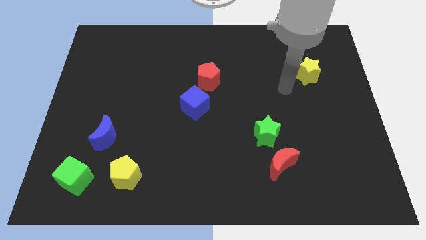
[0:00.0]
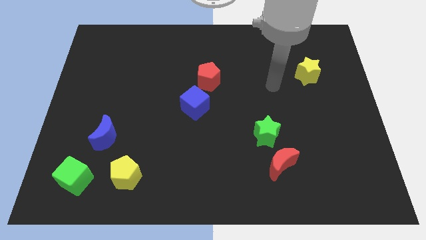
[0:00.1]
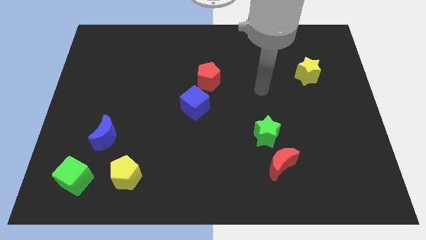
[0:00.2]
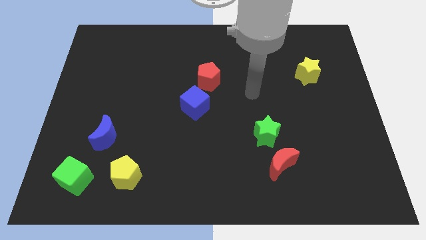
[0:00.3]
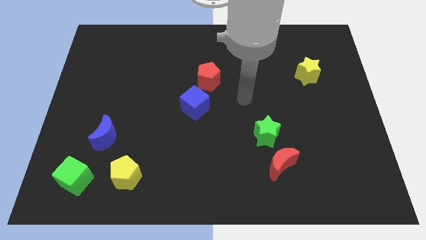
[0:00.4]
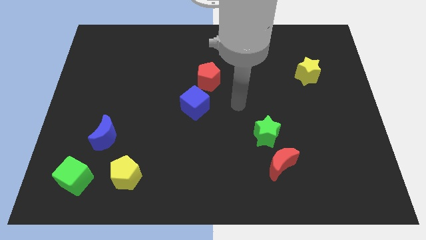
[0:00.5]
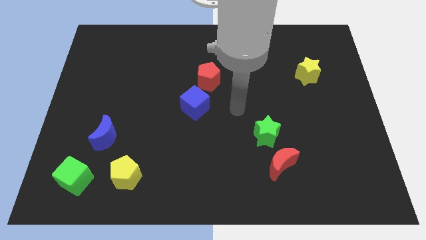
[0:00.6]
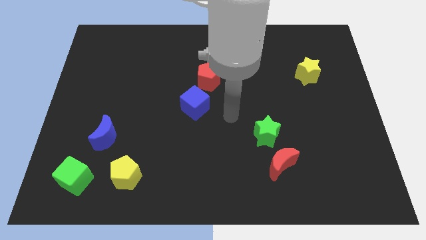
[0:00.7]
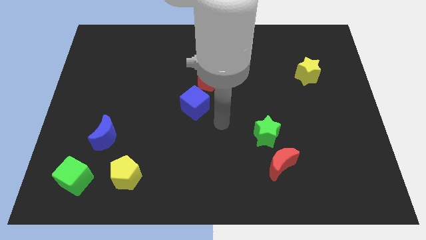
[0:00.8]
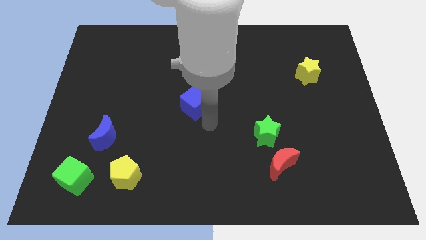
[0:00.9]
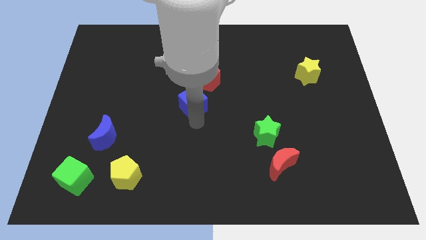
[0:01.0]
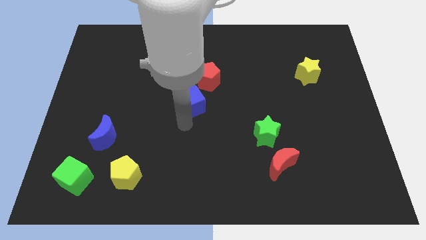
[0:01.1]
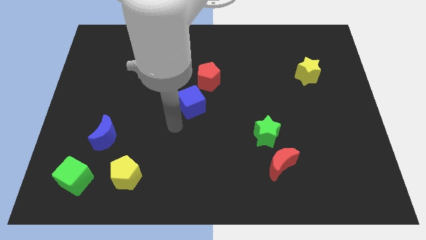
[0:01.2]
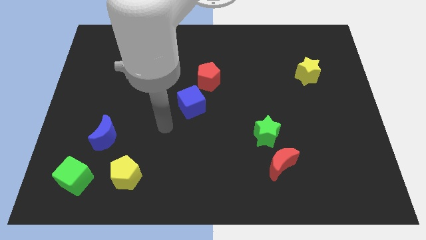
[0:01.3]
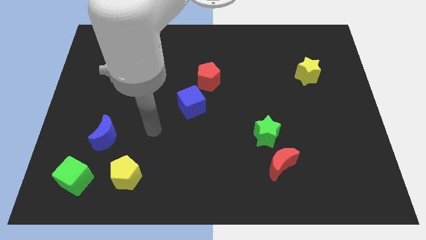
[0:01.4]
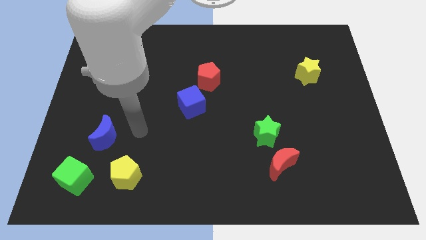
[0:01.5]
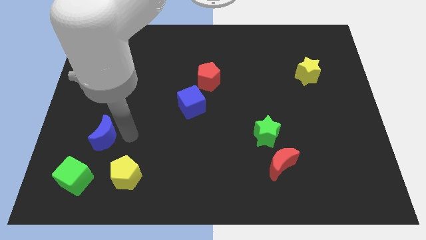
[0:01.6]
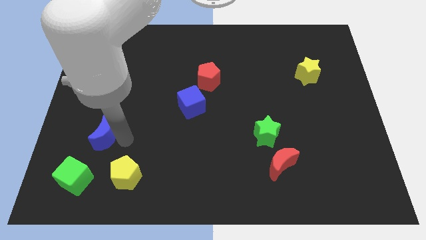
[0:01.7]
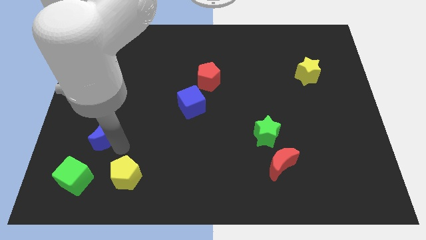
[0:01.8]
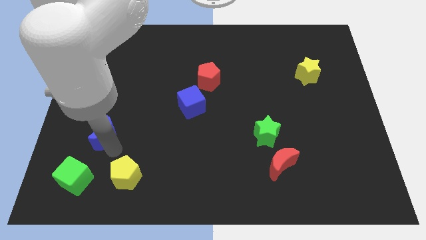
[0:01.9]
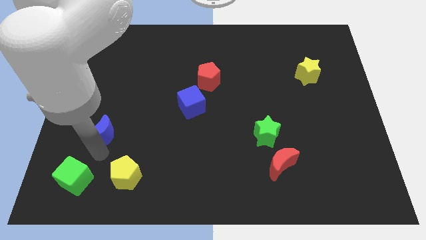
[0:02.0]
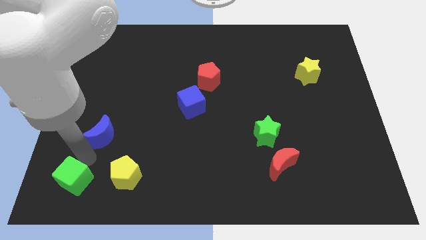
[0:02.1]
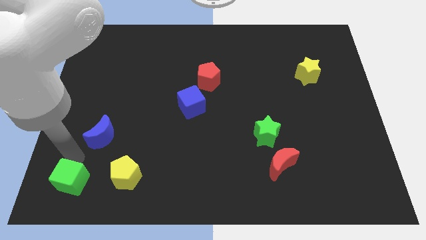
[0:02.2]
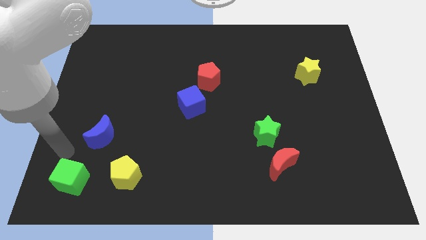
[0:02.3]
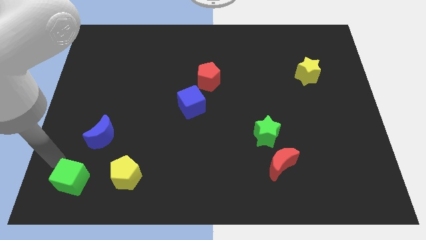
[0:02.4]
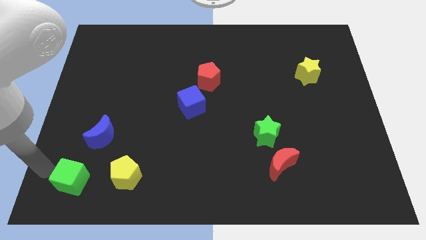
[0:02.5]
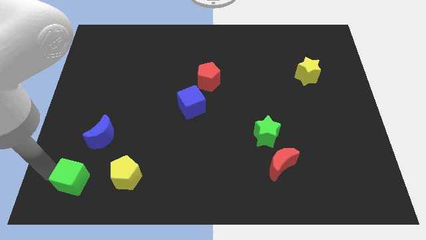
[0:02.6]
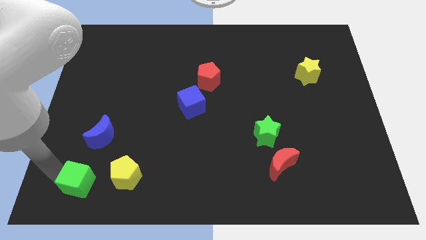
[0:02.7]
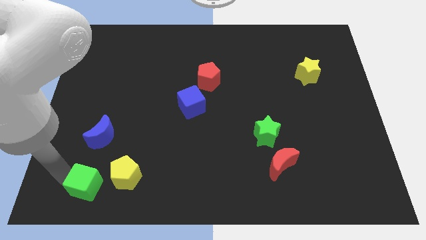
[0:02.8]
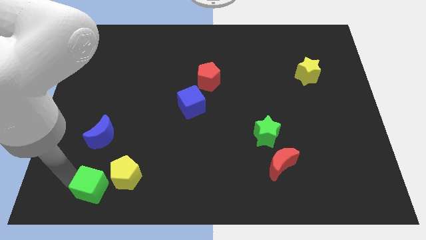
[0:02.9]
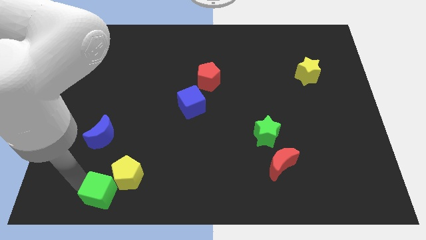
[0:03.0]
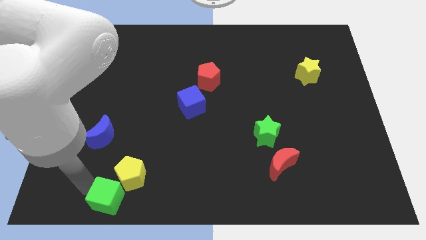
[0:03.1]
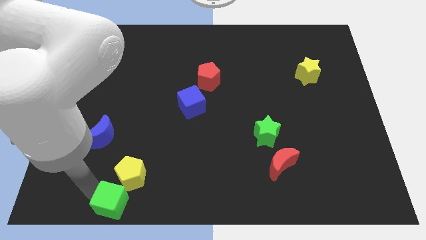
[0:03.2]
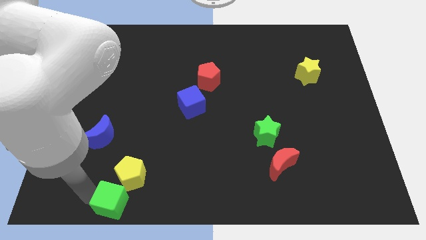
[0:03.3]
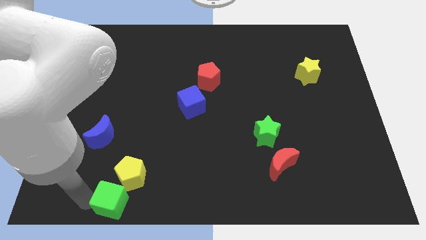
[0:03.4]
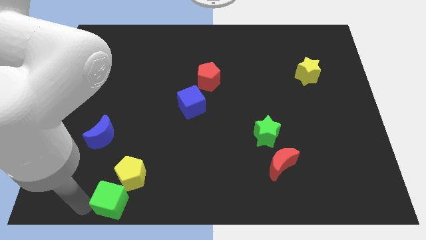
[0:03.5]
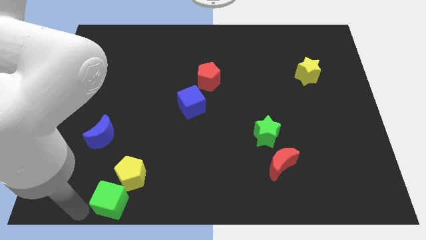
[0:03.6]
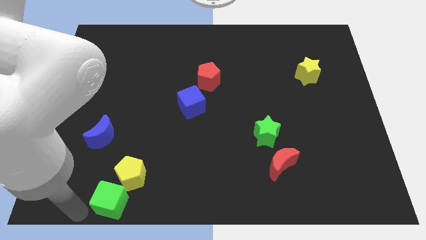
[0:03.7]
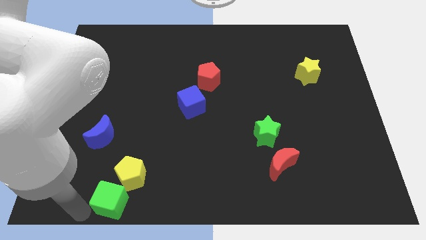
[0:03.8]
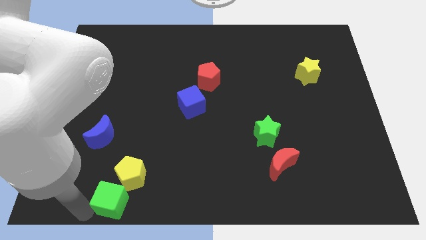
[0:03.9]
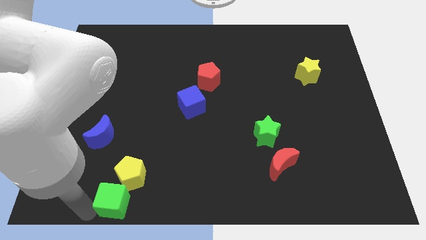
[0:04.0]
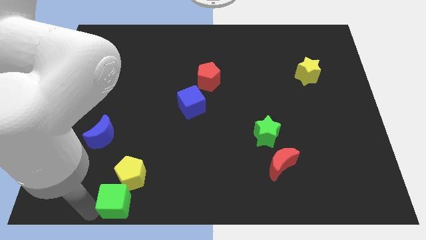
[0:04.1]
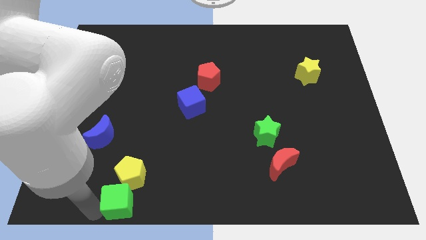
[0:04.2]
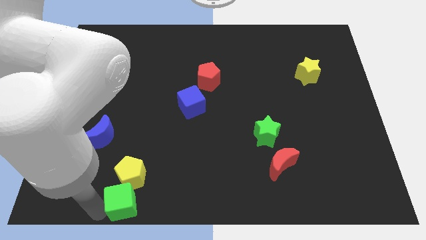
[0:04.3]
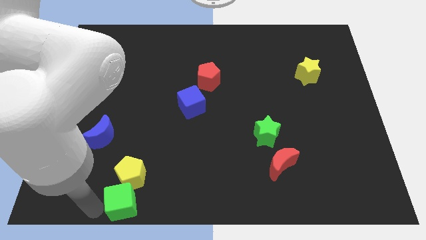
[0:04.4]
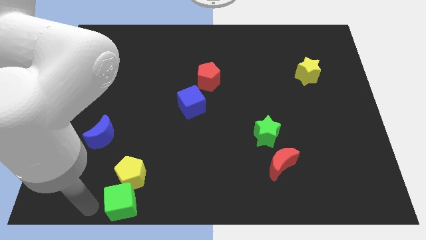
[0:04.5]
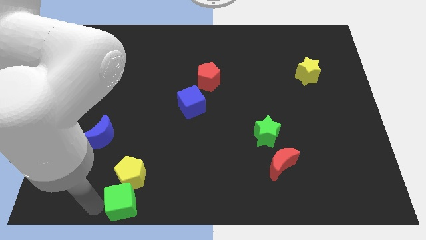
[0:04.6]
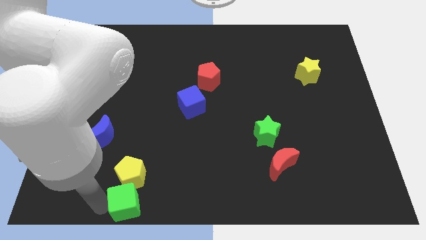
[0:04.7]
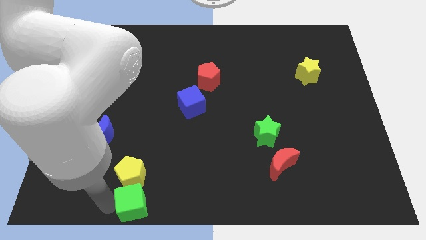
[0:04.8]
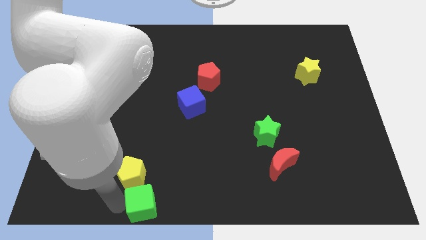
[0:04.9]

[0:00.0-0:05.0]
slide the green cube to the bottom side

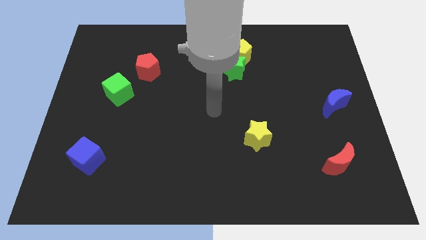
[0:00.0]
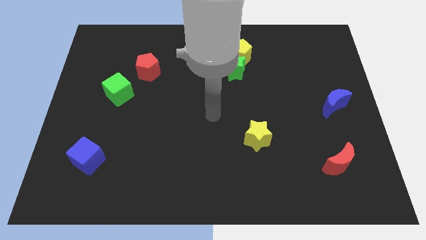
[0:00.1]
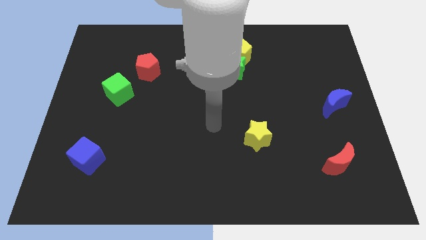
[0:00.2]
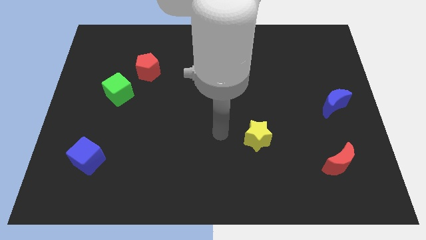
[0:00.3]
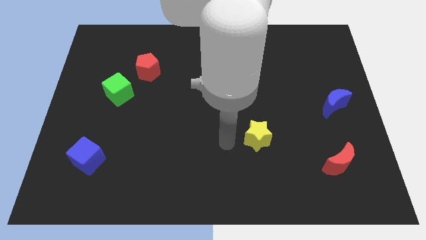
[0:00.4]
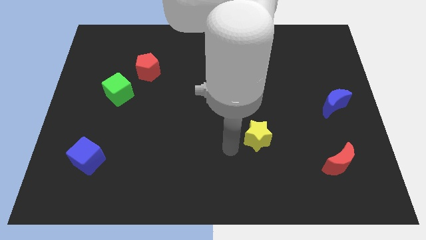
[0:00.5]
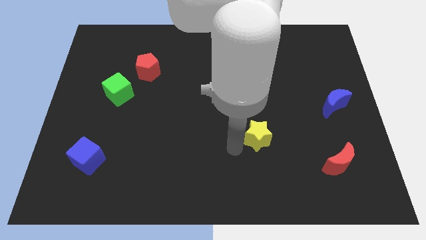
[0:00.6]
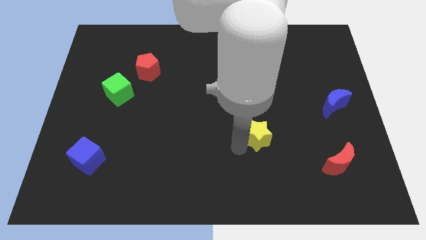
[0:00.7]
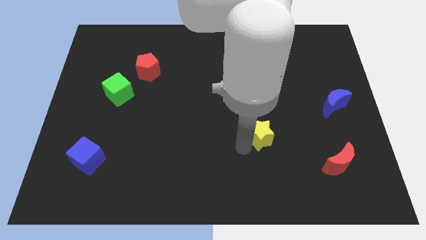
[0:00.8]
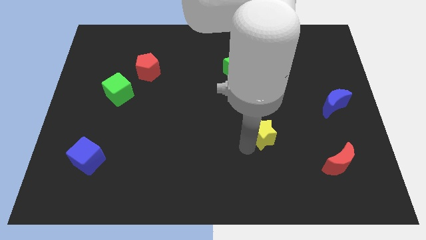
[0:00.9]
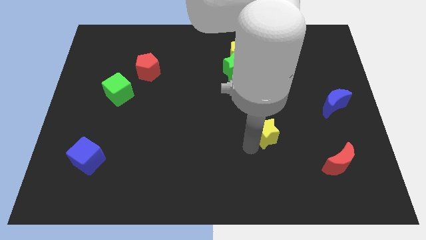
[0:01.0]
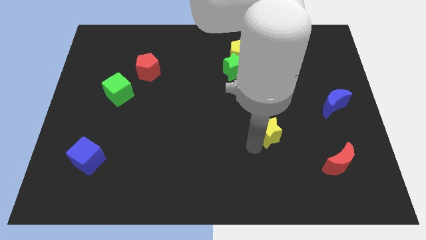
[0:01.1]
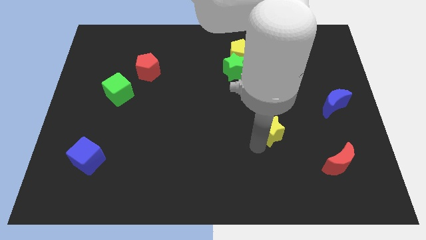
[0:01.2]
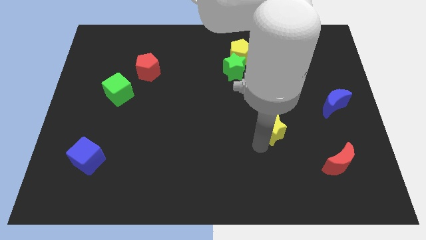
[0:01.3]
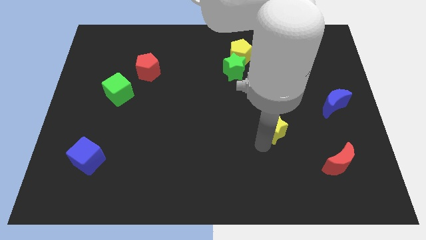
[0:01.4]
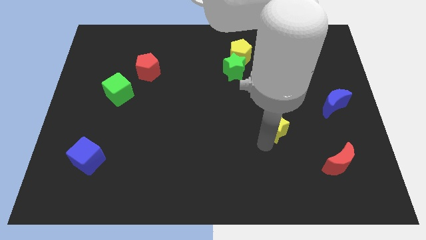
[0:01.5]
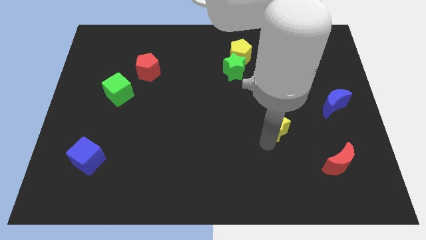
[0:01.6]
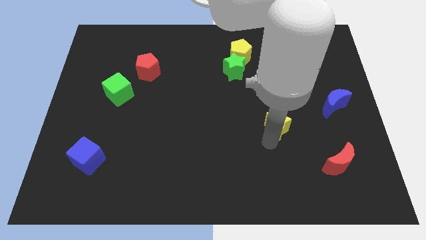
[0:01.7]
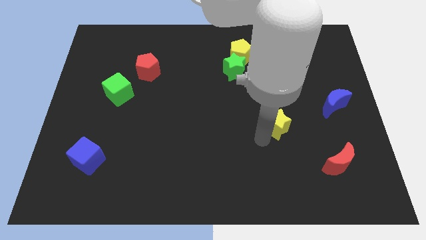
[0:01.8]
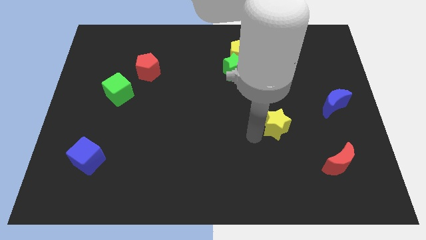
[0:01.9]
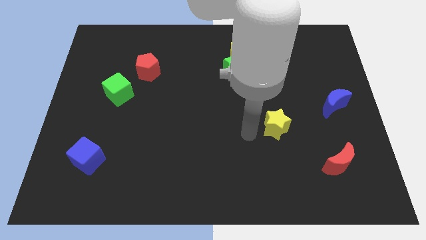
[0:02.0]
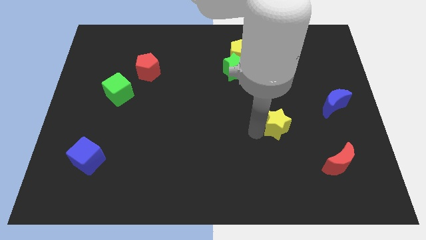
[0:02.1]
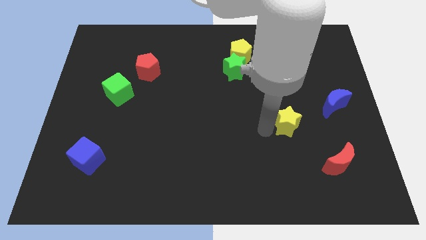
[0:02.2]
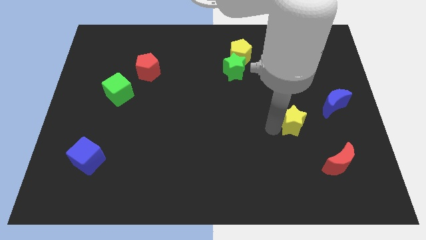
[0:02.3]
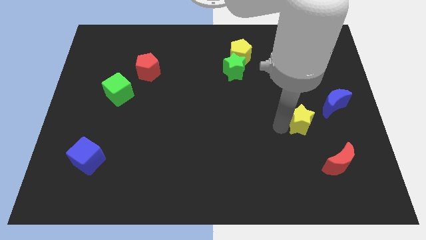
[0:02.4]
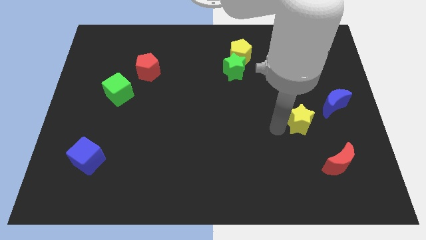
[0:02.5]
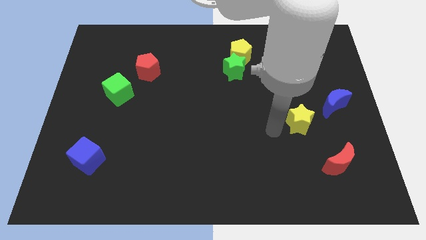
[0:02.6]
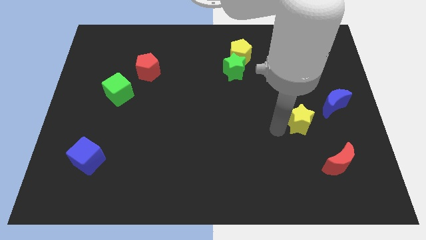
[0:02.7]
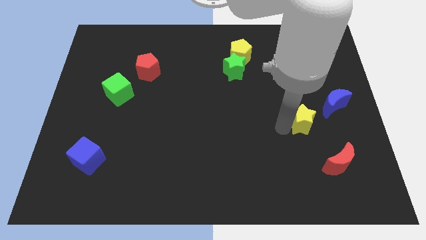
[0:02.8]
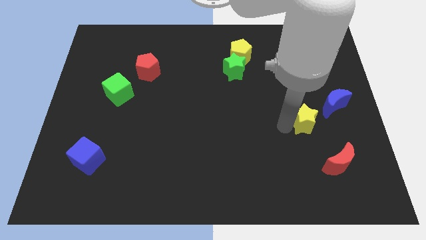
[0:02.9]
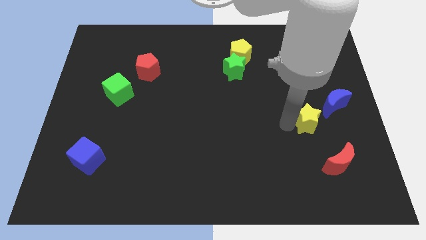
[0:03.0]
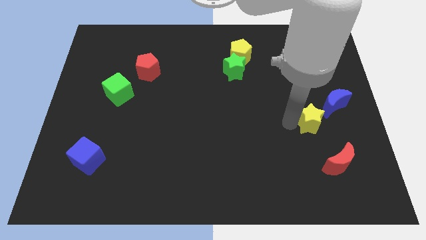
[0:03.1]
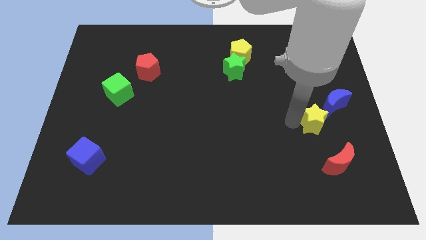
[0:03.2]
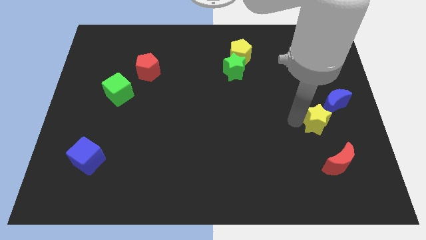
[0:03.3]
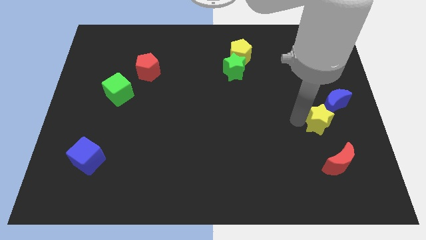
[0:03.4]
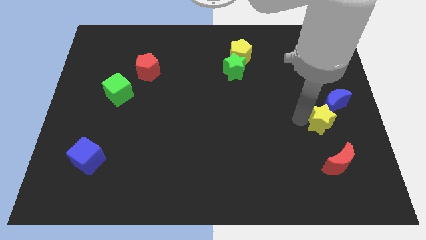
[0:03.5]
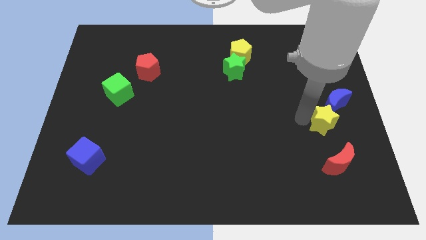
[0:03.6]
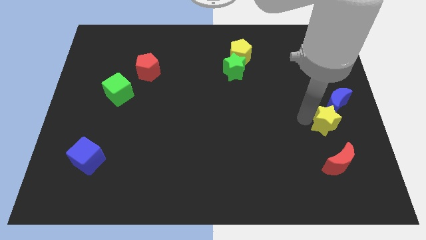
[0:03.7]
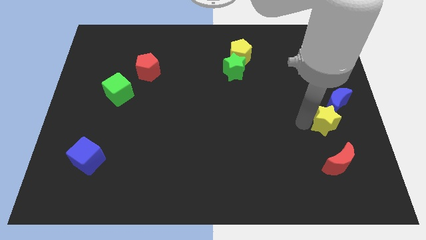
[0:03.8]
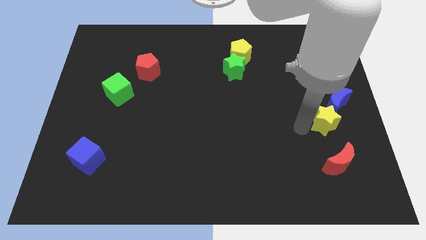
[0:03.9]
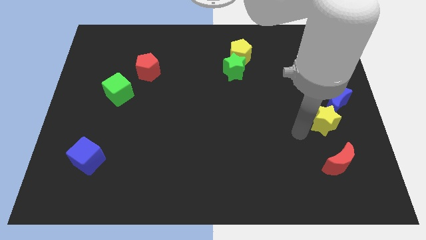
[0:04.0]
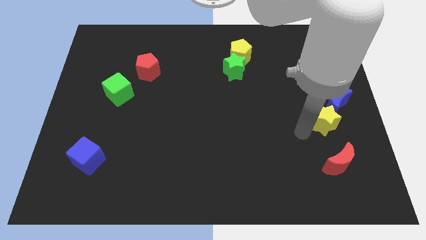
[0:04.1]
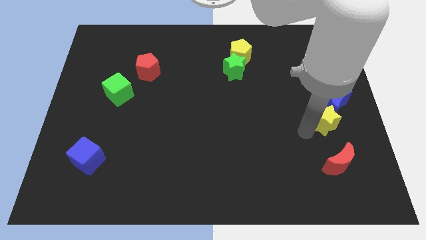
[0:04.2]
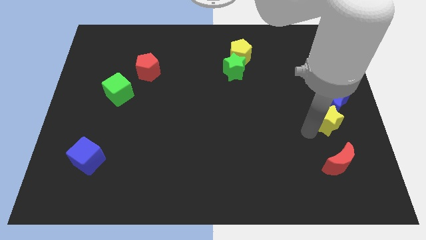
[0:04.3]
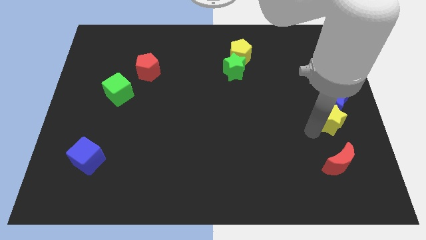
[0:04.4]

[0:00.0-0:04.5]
push the yellow star to the right side of the board
